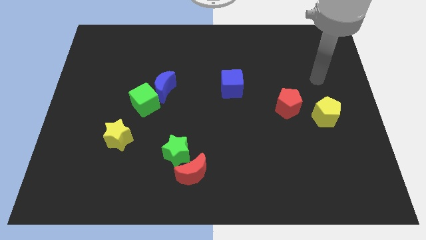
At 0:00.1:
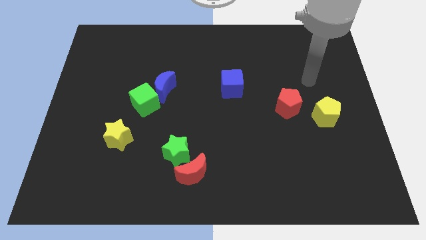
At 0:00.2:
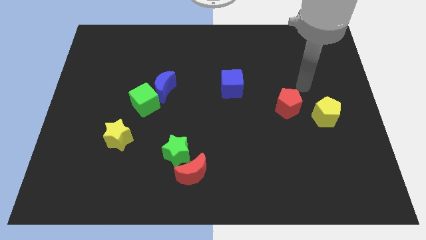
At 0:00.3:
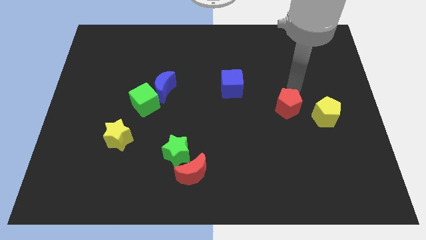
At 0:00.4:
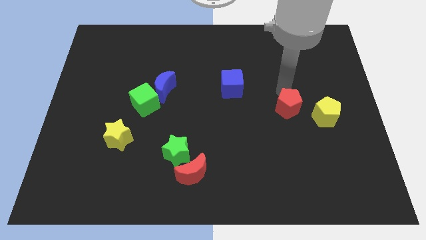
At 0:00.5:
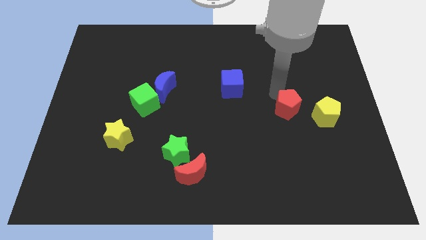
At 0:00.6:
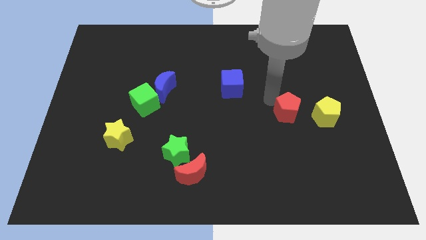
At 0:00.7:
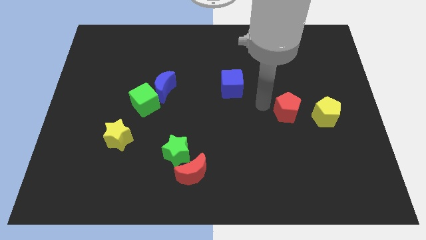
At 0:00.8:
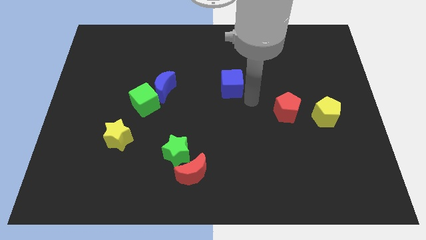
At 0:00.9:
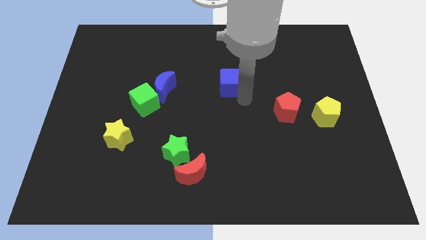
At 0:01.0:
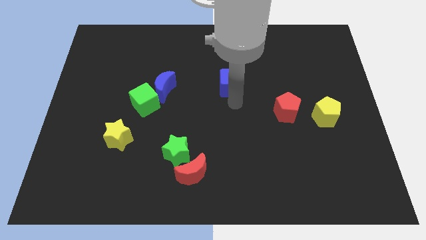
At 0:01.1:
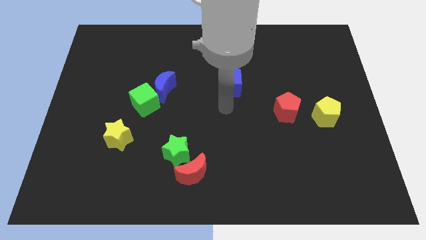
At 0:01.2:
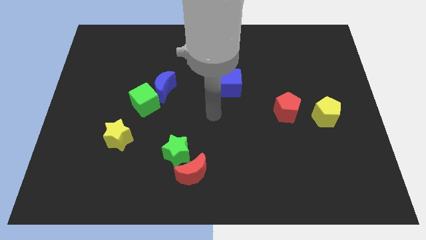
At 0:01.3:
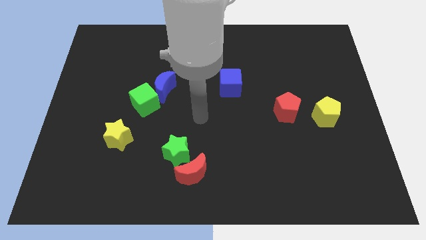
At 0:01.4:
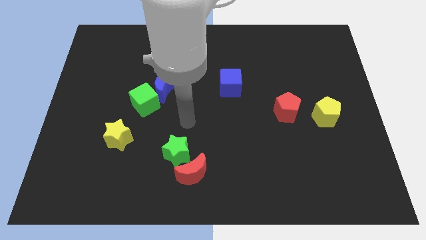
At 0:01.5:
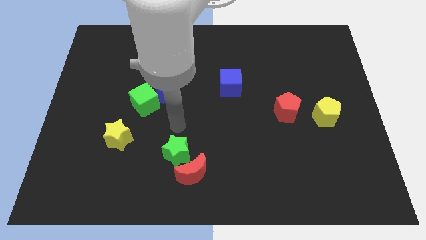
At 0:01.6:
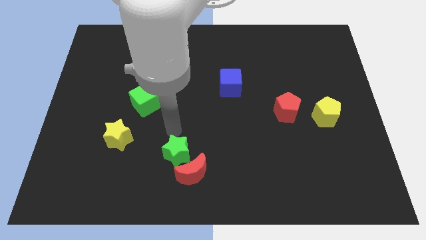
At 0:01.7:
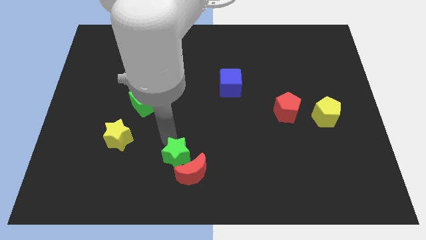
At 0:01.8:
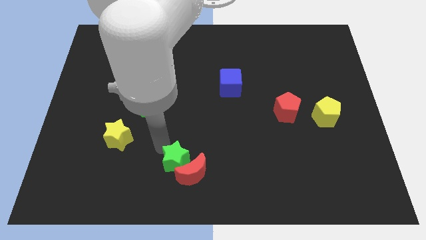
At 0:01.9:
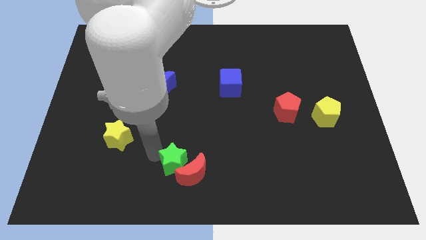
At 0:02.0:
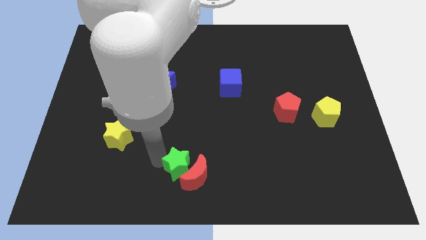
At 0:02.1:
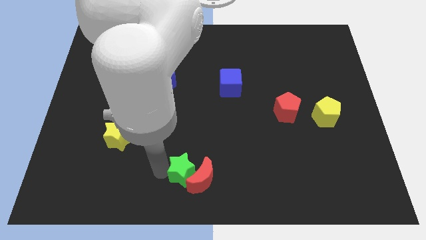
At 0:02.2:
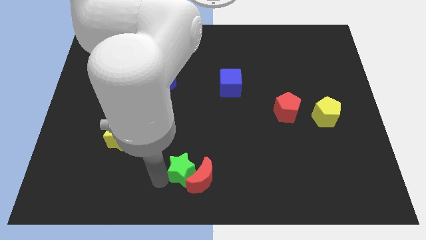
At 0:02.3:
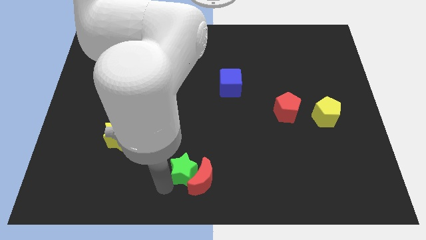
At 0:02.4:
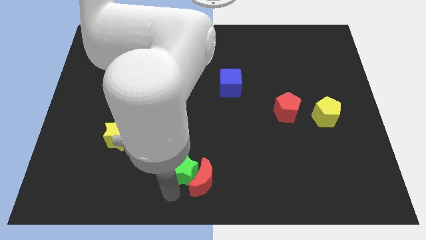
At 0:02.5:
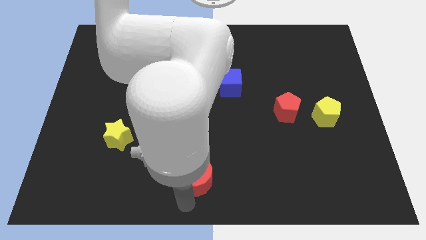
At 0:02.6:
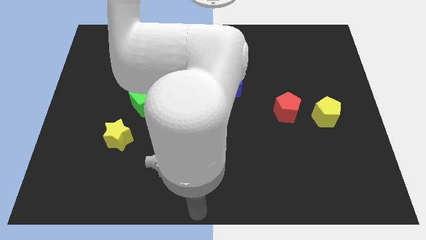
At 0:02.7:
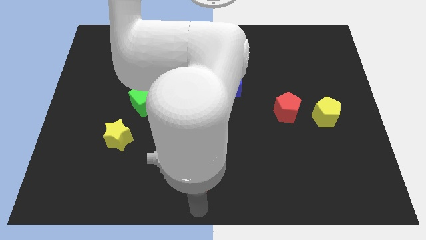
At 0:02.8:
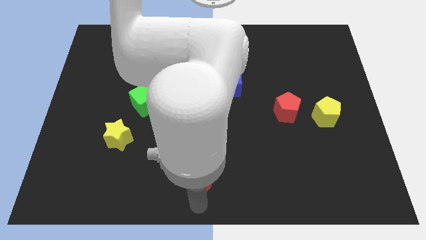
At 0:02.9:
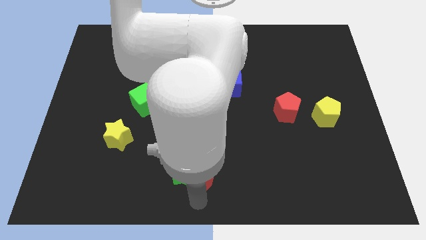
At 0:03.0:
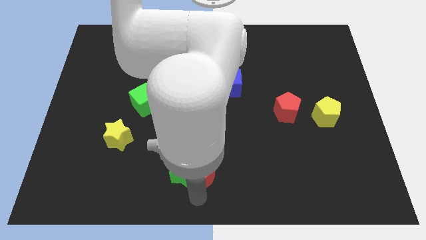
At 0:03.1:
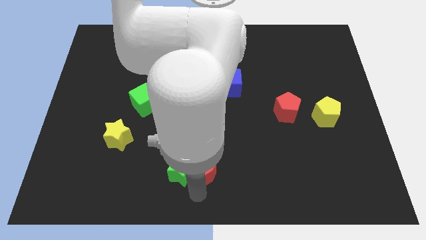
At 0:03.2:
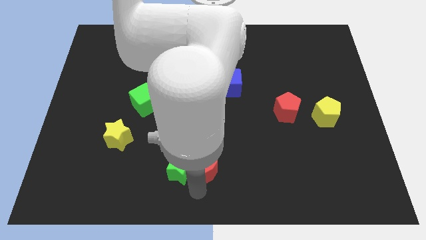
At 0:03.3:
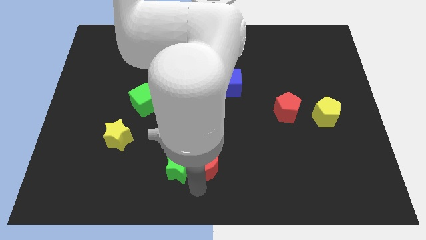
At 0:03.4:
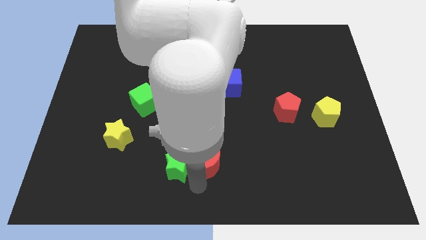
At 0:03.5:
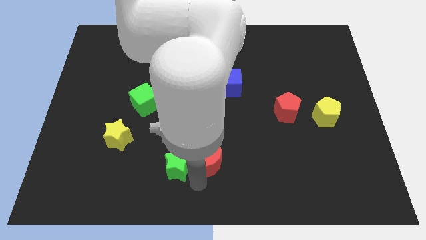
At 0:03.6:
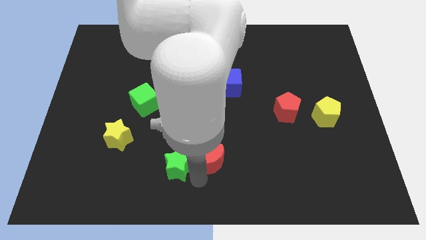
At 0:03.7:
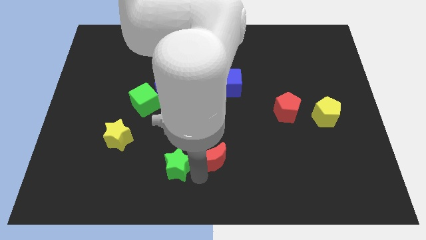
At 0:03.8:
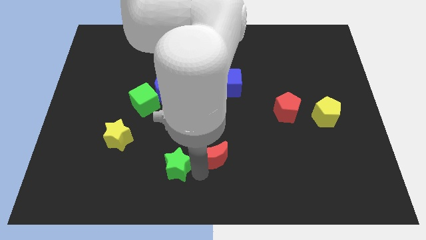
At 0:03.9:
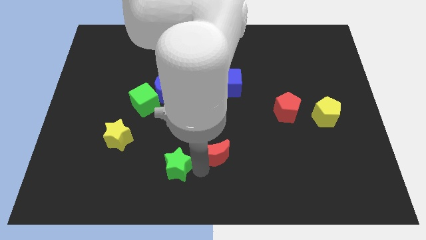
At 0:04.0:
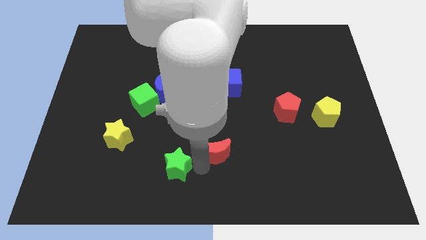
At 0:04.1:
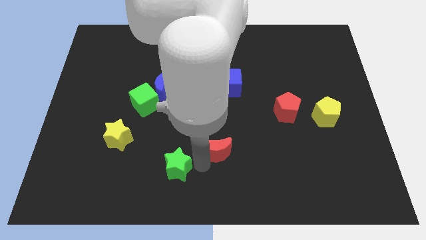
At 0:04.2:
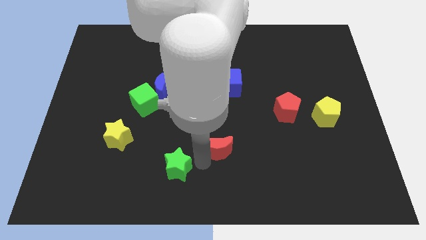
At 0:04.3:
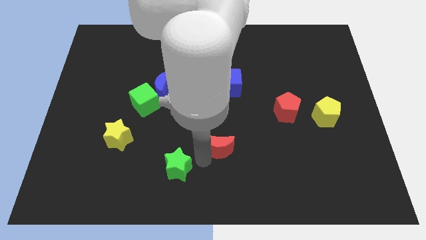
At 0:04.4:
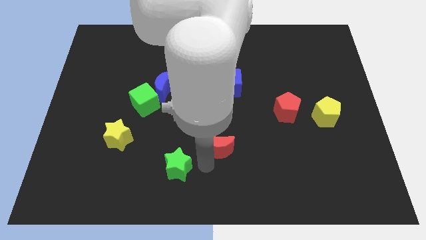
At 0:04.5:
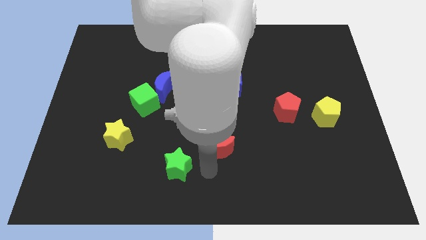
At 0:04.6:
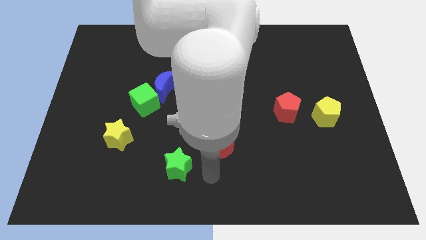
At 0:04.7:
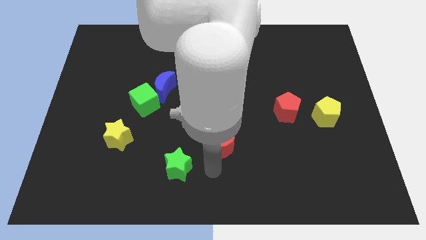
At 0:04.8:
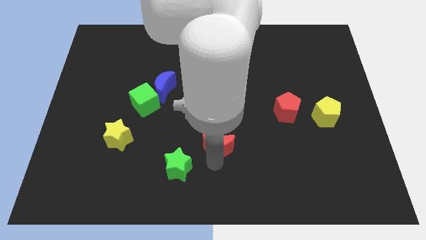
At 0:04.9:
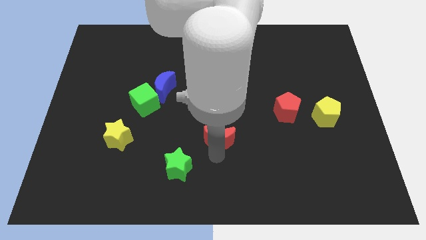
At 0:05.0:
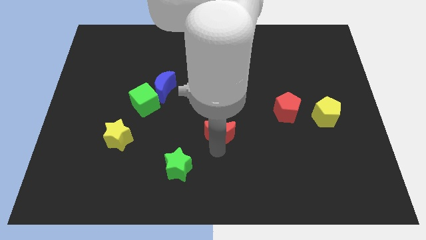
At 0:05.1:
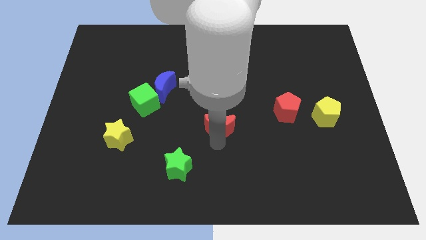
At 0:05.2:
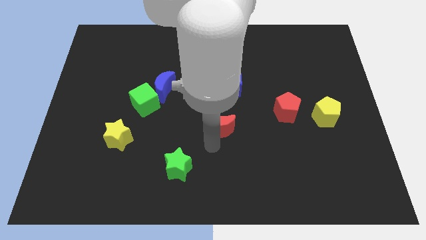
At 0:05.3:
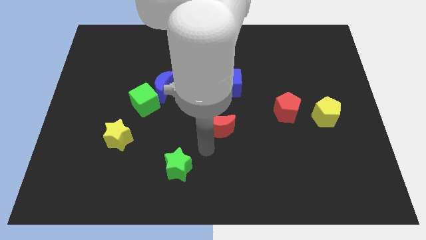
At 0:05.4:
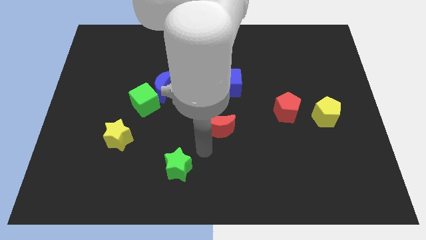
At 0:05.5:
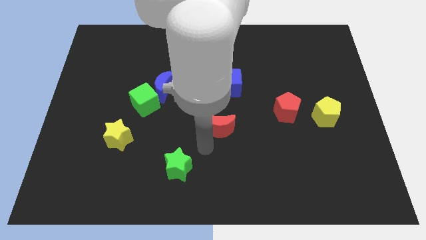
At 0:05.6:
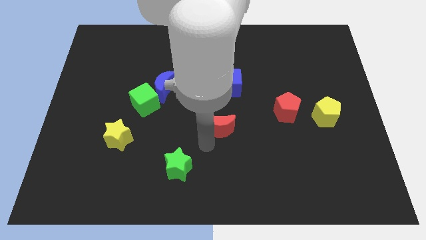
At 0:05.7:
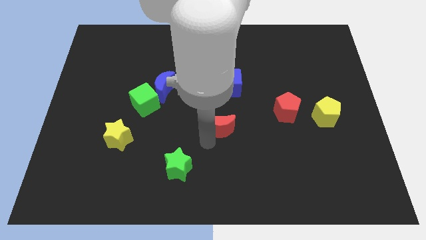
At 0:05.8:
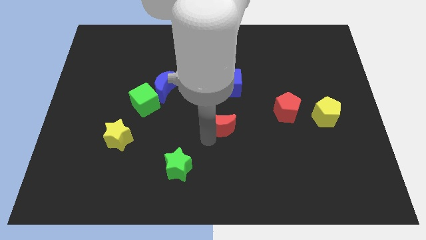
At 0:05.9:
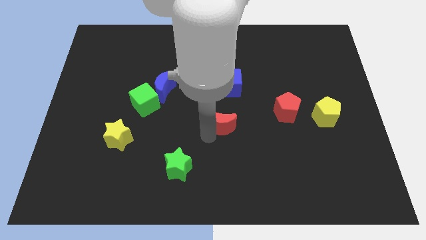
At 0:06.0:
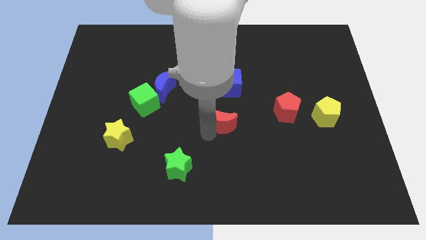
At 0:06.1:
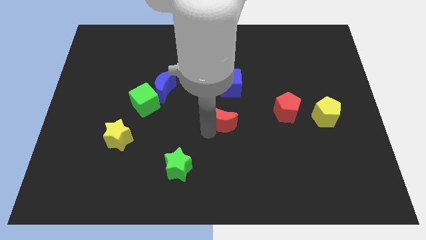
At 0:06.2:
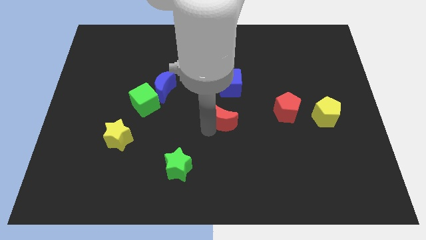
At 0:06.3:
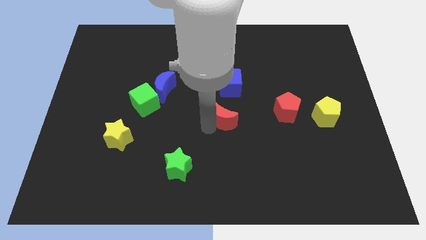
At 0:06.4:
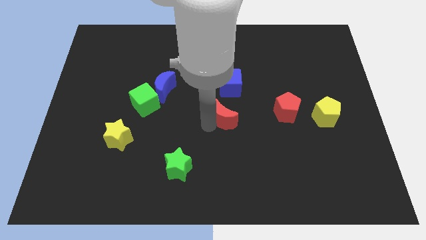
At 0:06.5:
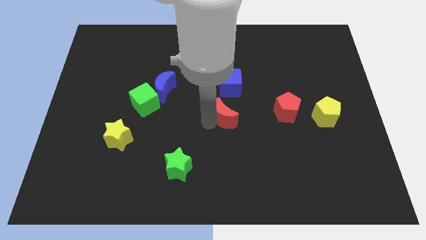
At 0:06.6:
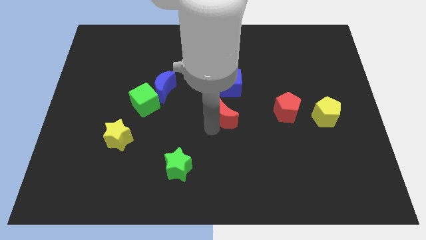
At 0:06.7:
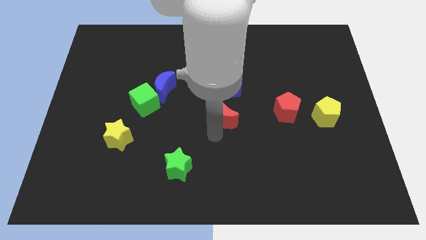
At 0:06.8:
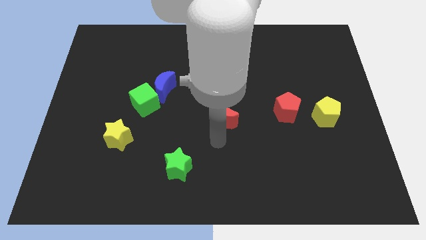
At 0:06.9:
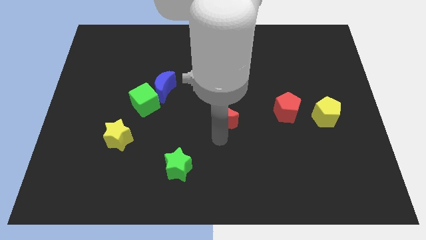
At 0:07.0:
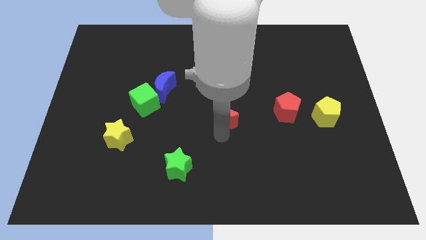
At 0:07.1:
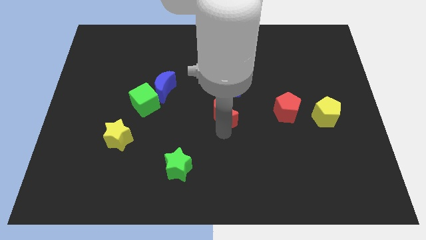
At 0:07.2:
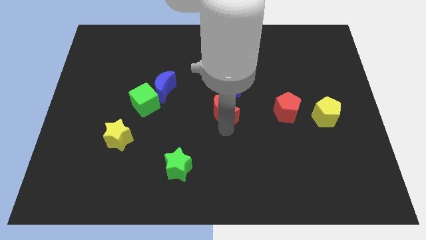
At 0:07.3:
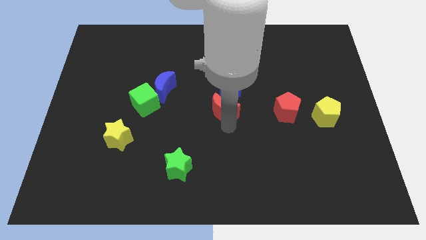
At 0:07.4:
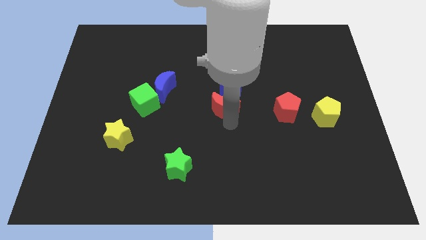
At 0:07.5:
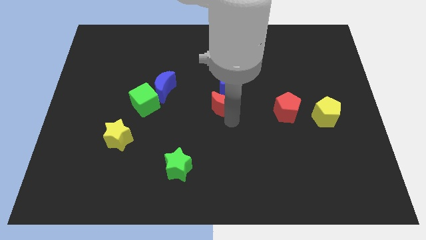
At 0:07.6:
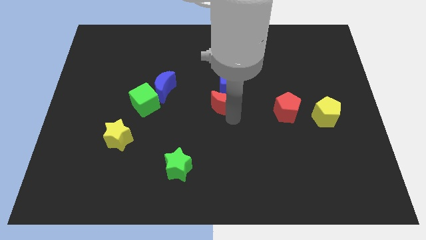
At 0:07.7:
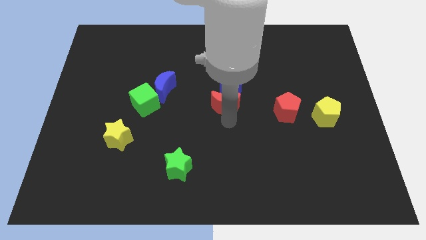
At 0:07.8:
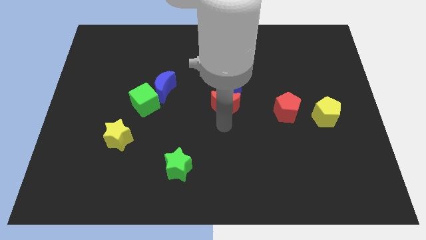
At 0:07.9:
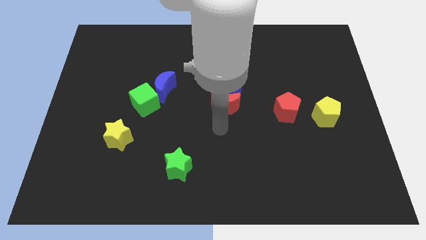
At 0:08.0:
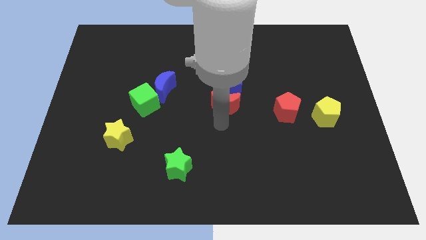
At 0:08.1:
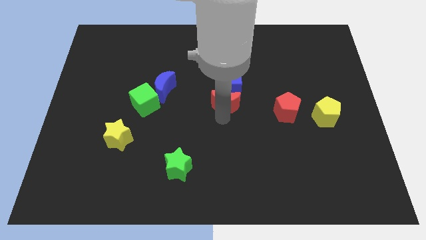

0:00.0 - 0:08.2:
put the red moon next to the blue cube
